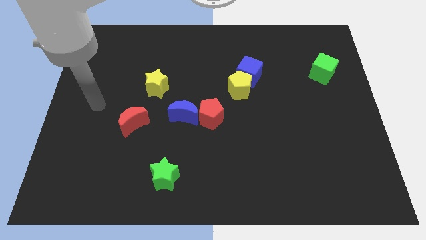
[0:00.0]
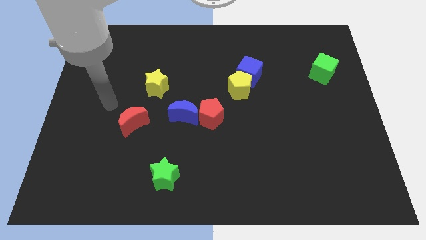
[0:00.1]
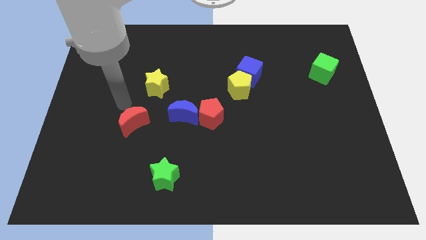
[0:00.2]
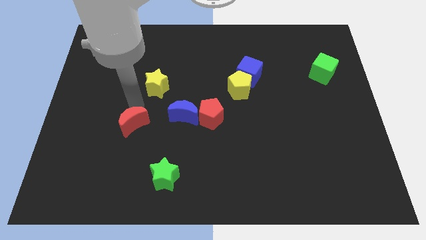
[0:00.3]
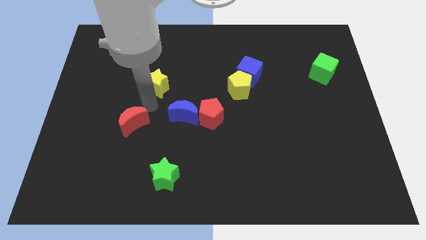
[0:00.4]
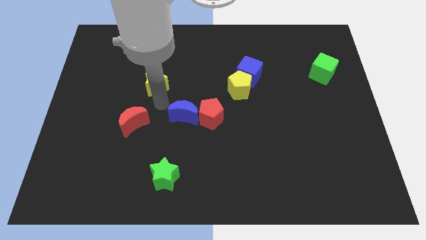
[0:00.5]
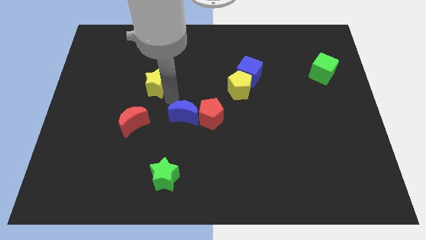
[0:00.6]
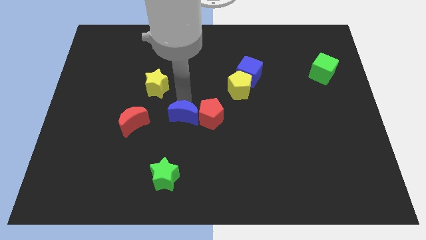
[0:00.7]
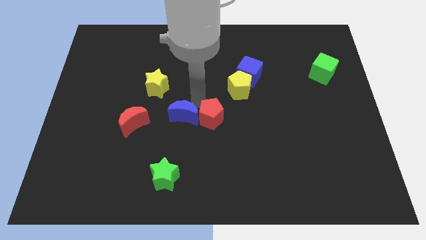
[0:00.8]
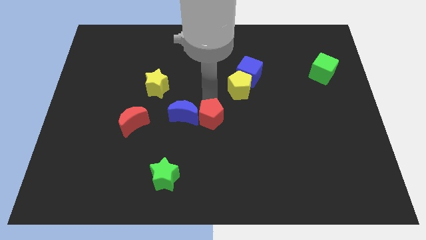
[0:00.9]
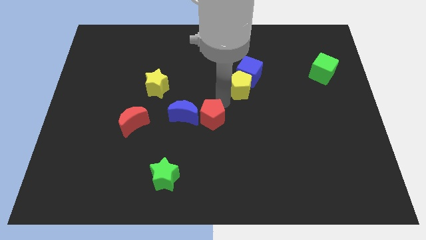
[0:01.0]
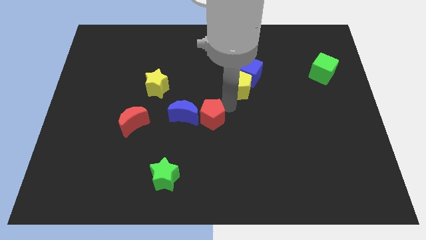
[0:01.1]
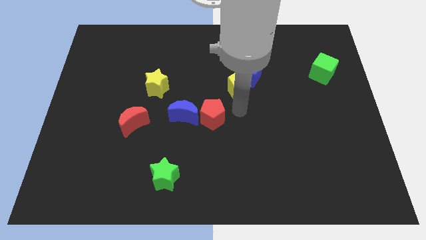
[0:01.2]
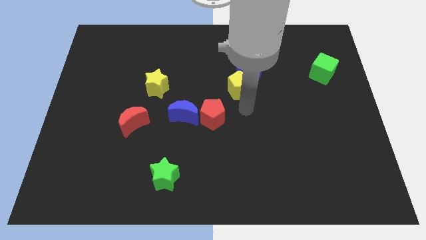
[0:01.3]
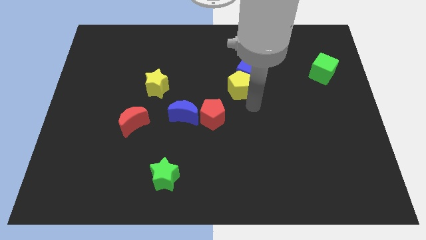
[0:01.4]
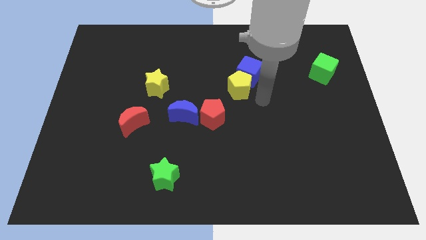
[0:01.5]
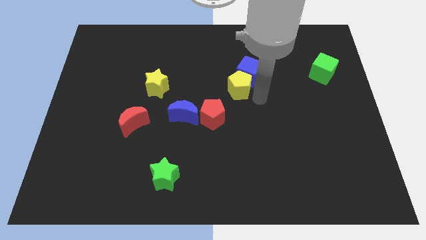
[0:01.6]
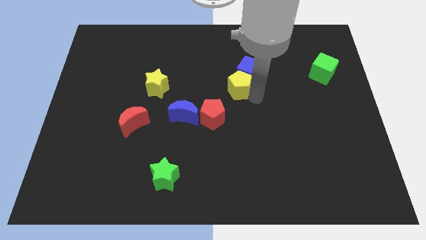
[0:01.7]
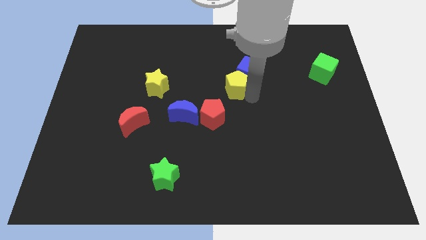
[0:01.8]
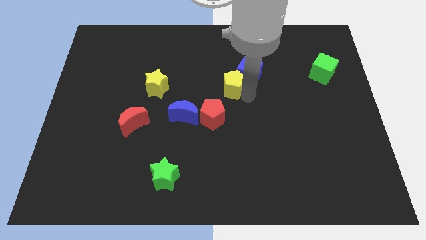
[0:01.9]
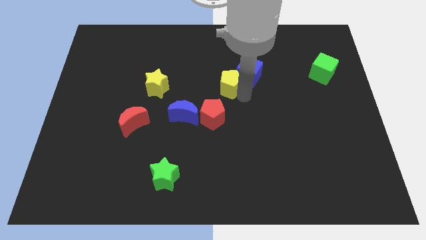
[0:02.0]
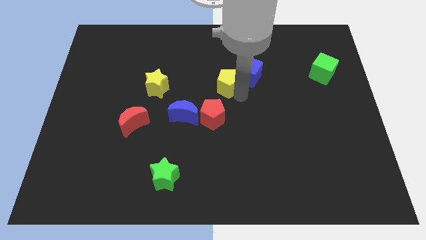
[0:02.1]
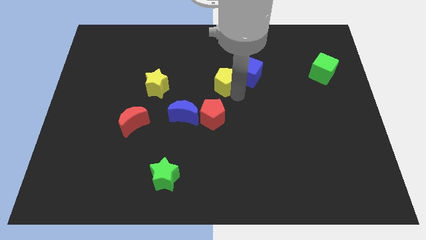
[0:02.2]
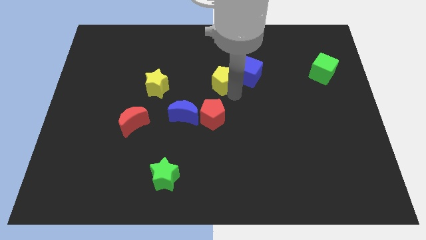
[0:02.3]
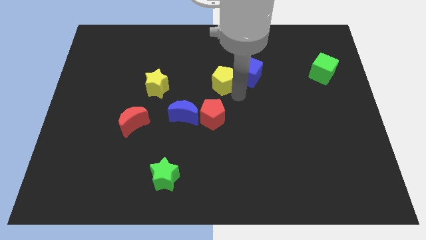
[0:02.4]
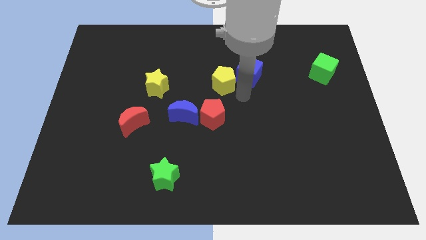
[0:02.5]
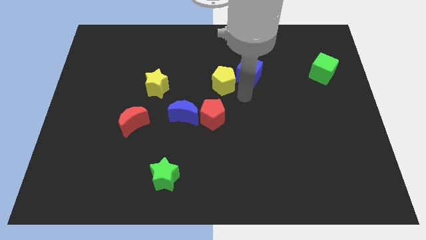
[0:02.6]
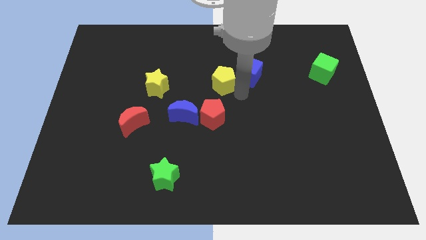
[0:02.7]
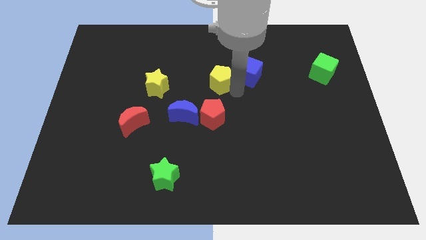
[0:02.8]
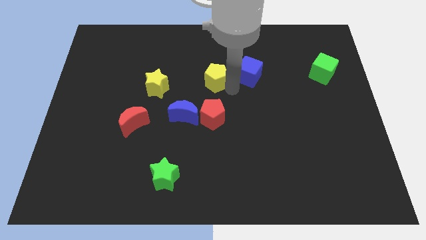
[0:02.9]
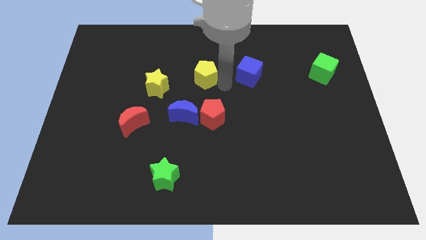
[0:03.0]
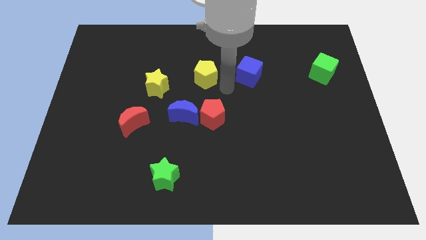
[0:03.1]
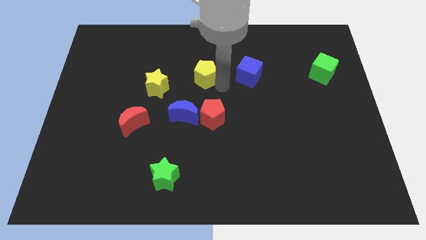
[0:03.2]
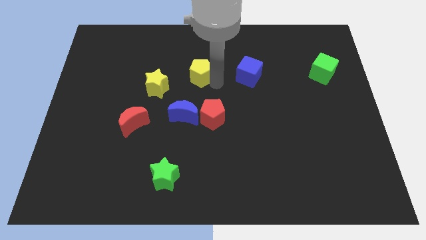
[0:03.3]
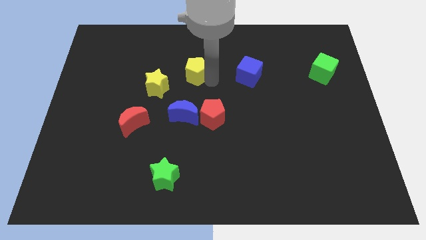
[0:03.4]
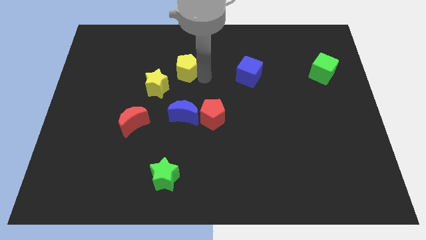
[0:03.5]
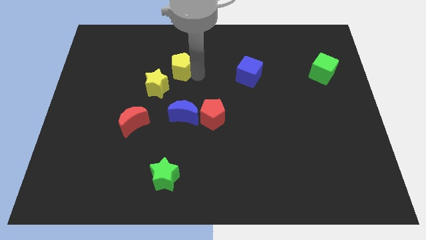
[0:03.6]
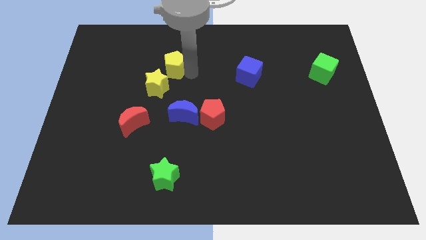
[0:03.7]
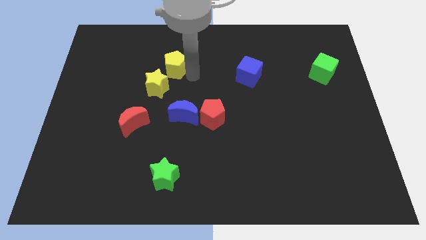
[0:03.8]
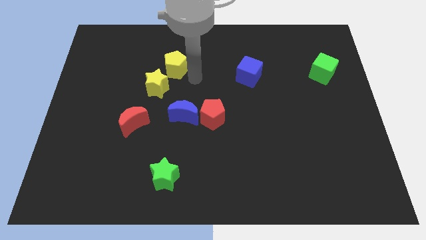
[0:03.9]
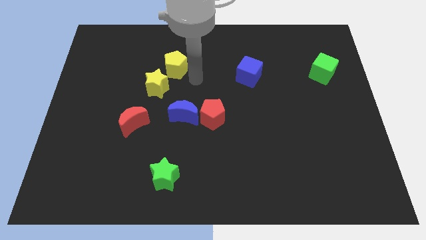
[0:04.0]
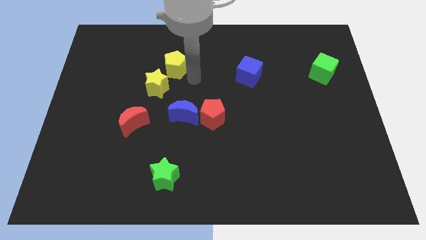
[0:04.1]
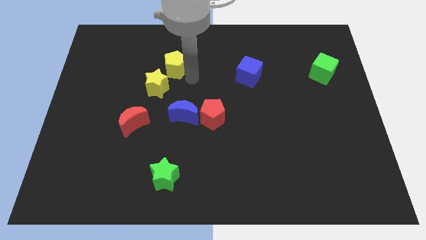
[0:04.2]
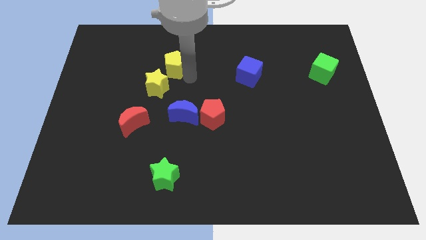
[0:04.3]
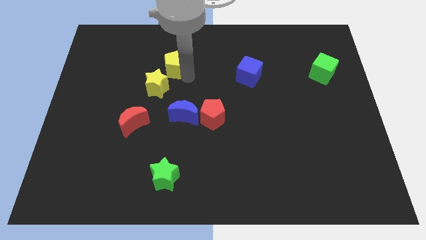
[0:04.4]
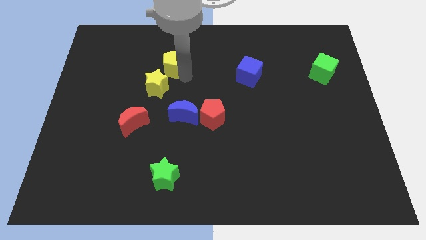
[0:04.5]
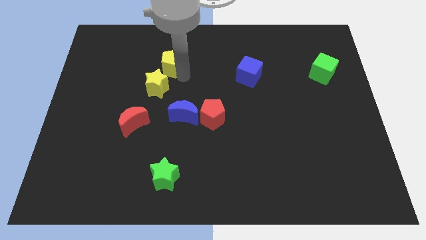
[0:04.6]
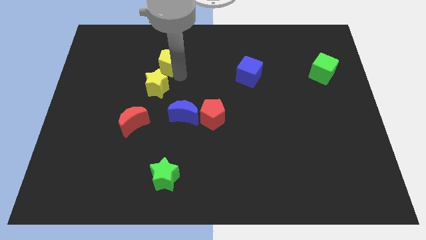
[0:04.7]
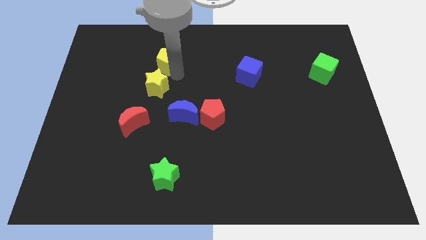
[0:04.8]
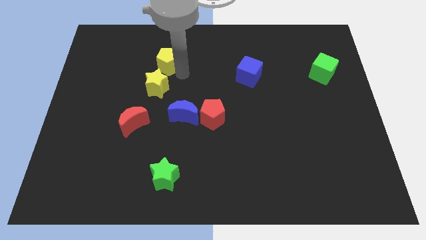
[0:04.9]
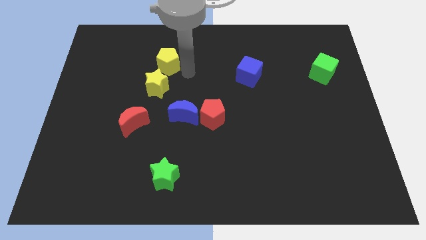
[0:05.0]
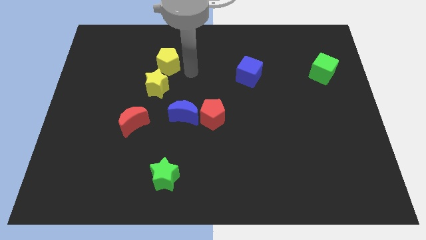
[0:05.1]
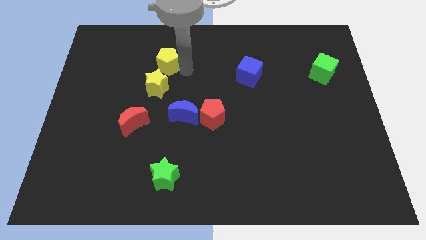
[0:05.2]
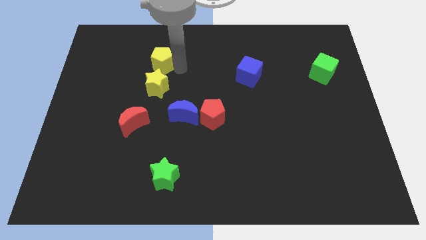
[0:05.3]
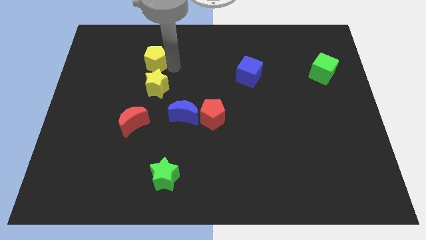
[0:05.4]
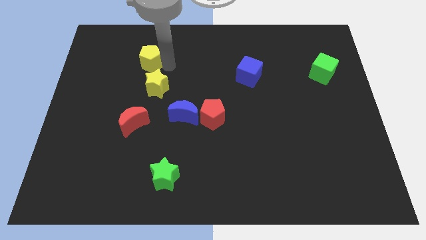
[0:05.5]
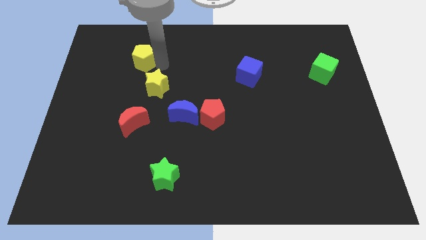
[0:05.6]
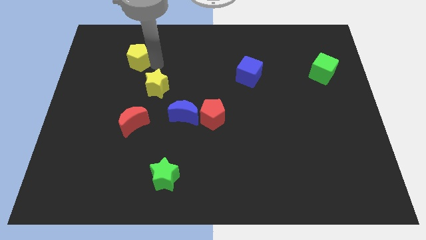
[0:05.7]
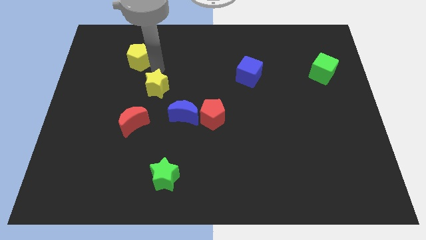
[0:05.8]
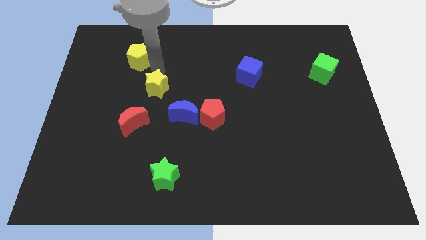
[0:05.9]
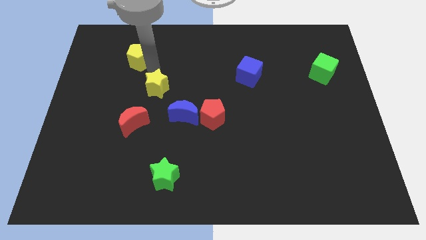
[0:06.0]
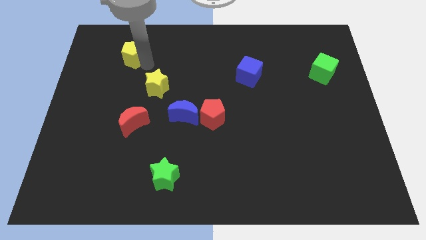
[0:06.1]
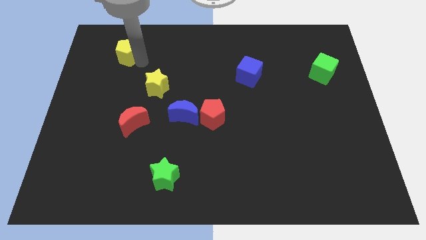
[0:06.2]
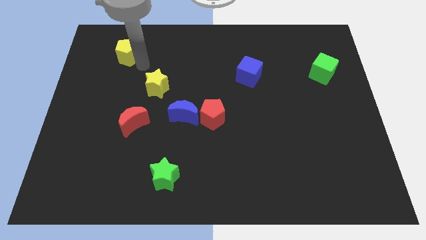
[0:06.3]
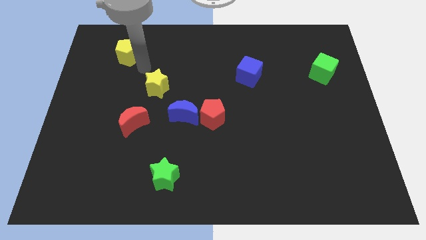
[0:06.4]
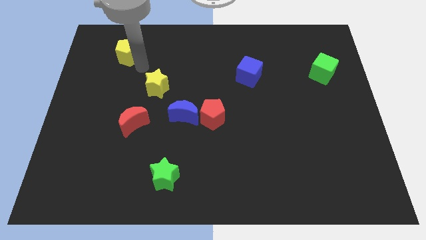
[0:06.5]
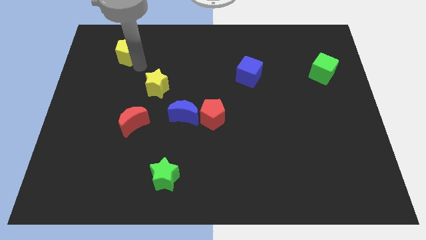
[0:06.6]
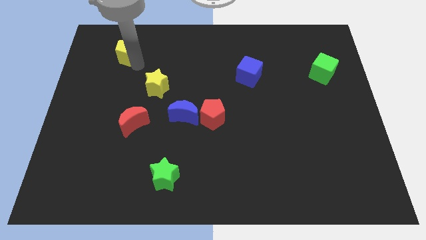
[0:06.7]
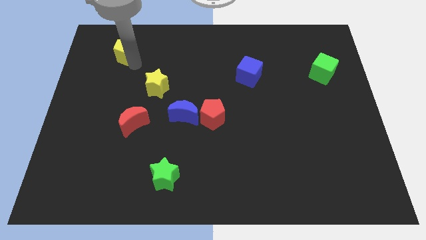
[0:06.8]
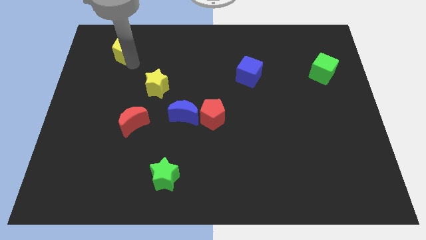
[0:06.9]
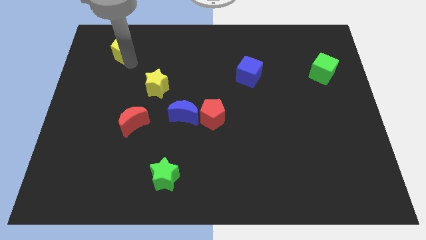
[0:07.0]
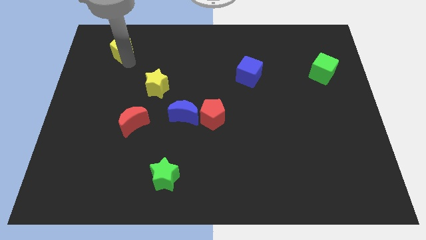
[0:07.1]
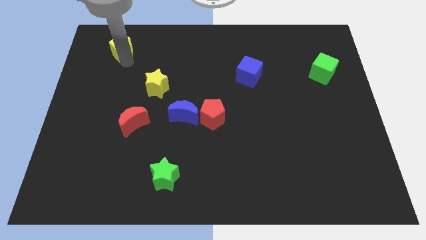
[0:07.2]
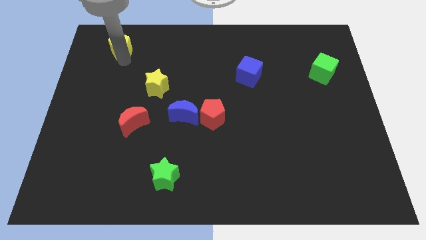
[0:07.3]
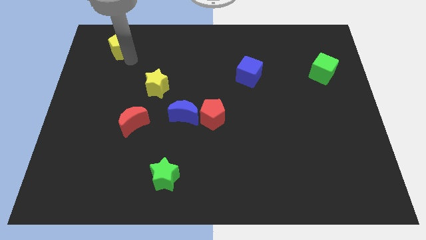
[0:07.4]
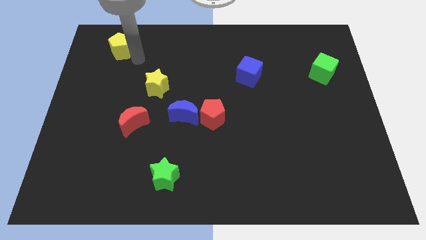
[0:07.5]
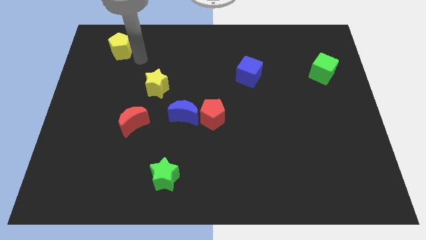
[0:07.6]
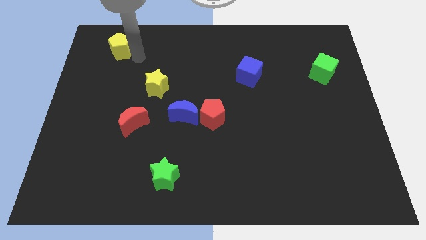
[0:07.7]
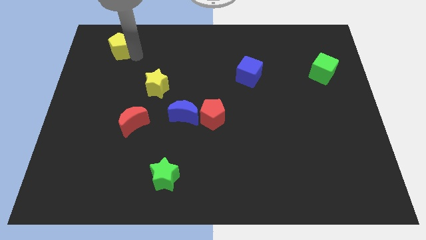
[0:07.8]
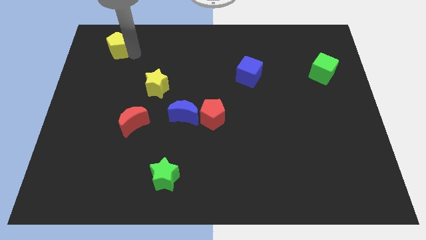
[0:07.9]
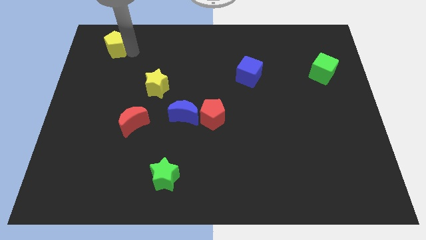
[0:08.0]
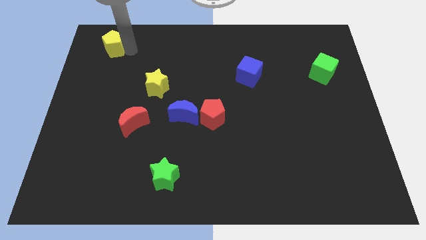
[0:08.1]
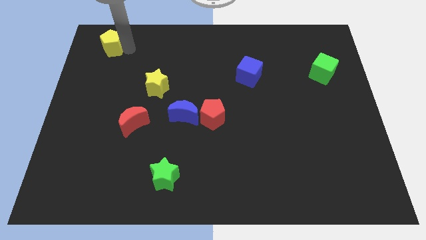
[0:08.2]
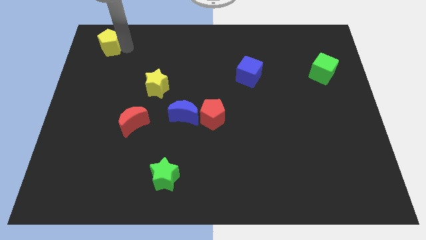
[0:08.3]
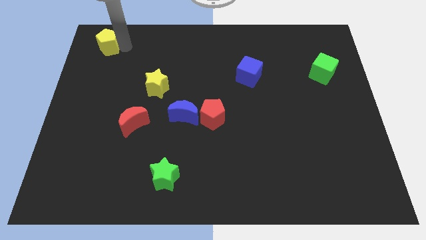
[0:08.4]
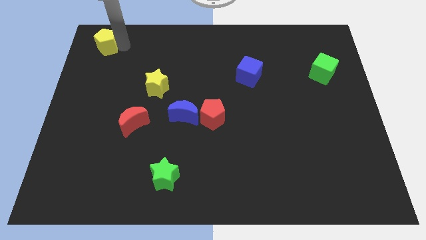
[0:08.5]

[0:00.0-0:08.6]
slide the yellow pentagon to the upper left corner
